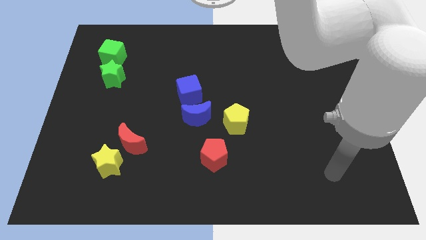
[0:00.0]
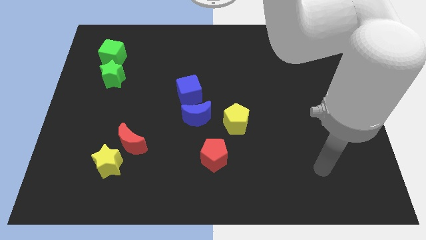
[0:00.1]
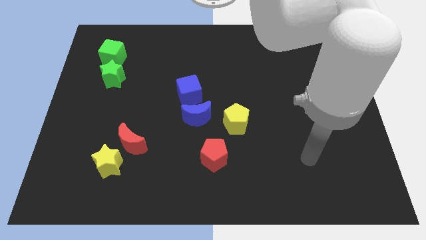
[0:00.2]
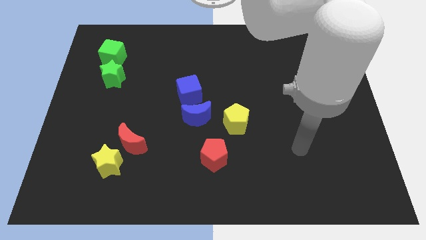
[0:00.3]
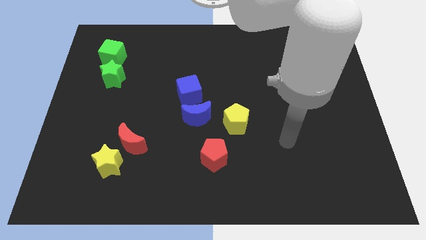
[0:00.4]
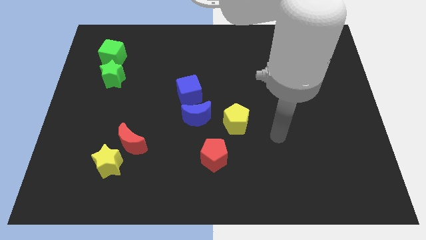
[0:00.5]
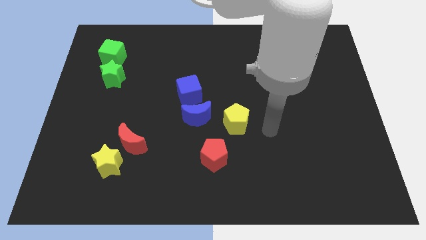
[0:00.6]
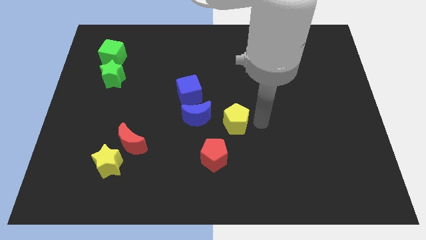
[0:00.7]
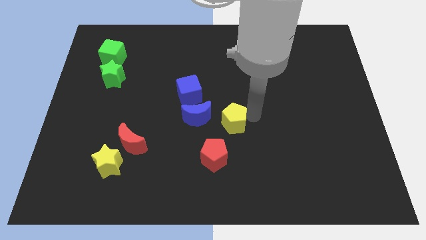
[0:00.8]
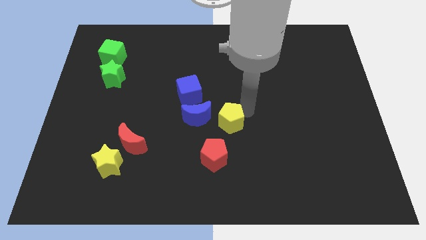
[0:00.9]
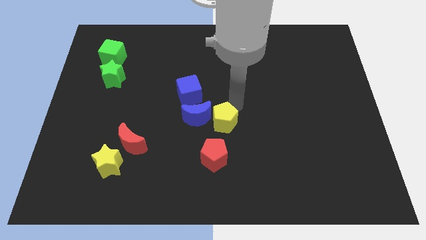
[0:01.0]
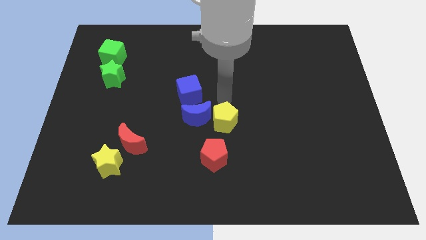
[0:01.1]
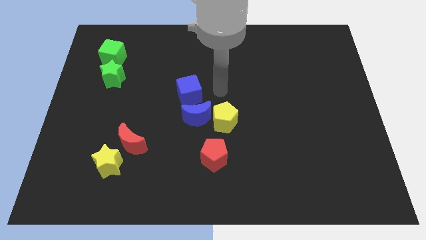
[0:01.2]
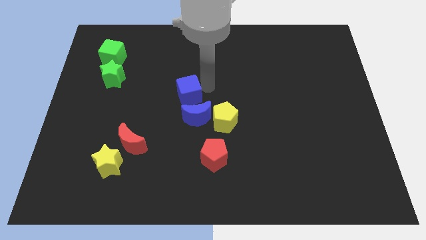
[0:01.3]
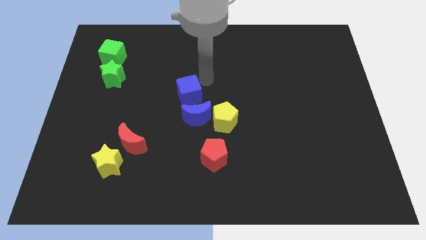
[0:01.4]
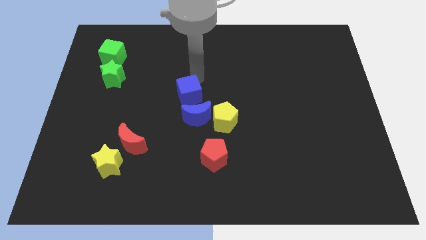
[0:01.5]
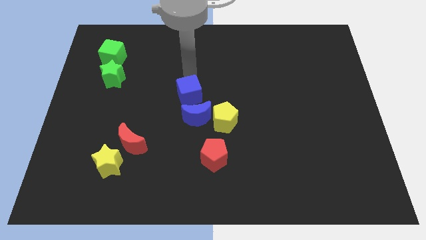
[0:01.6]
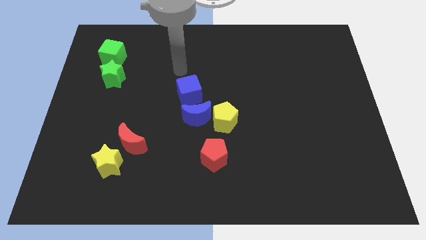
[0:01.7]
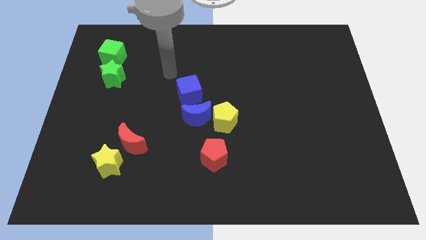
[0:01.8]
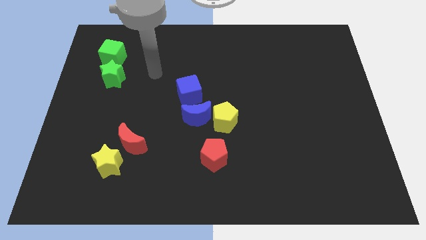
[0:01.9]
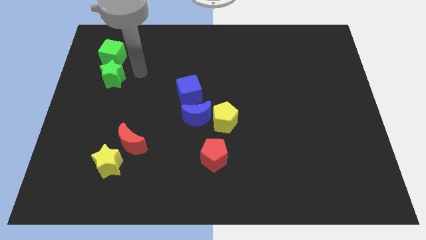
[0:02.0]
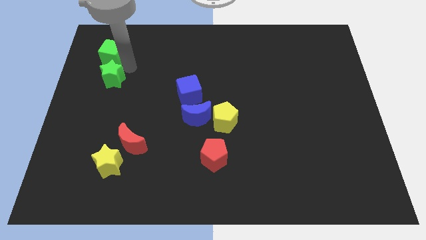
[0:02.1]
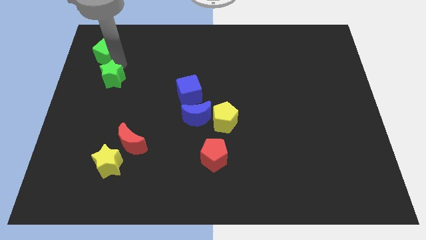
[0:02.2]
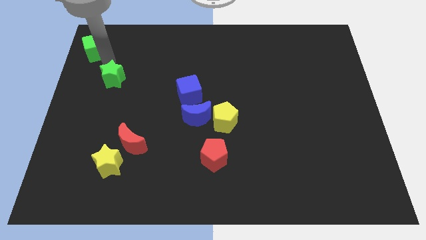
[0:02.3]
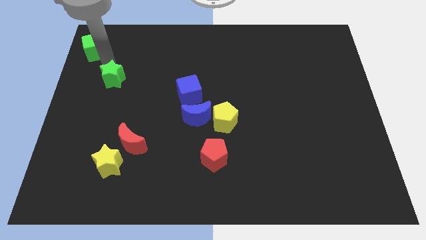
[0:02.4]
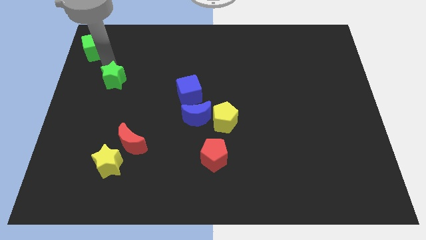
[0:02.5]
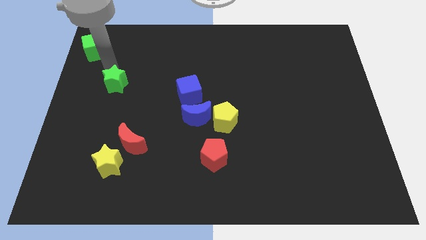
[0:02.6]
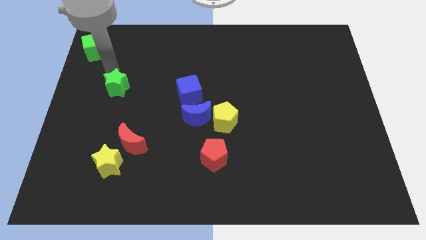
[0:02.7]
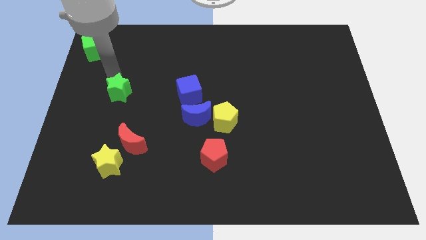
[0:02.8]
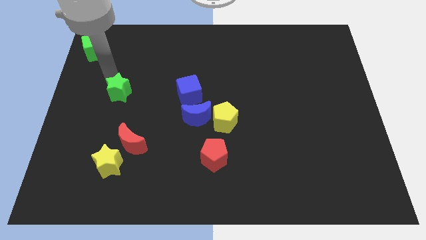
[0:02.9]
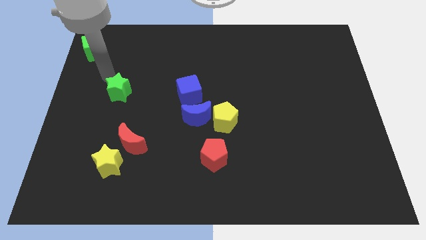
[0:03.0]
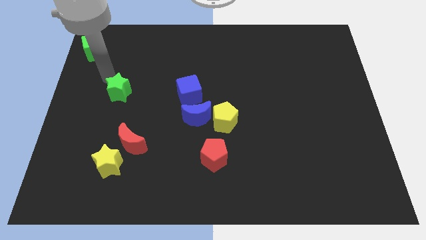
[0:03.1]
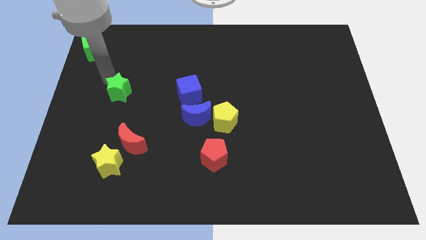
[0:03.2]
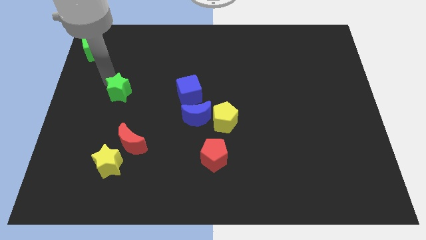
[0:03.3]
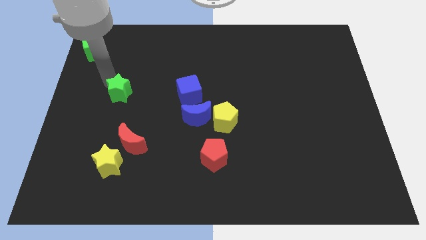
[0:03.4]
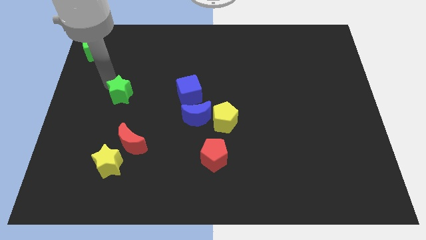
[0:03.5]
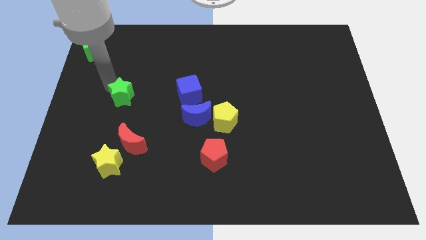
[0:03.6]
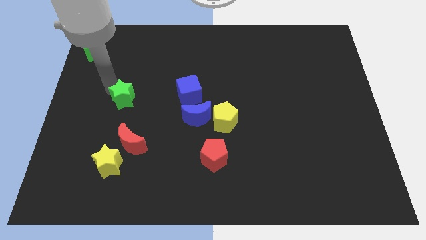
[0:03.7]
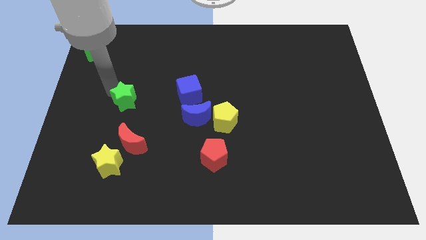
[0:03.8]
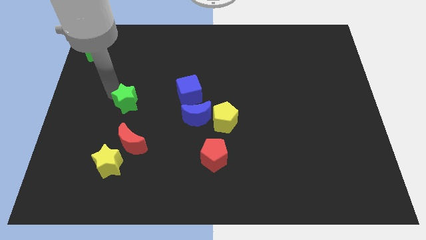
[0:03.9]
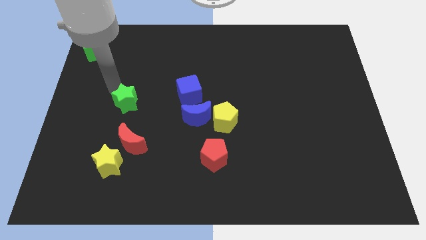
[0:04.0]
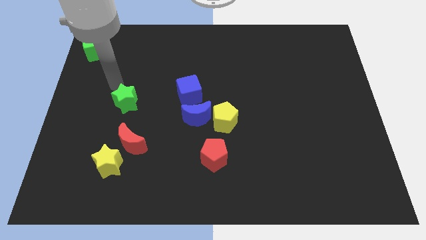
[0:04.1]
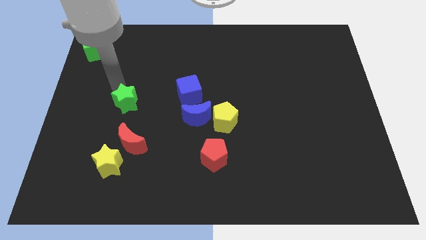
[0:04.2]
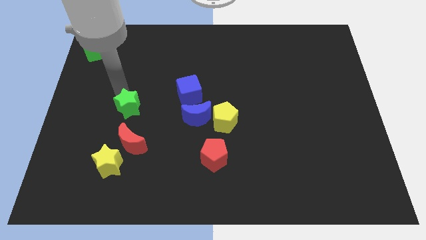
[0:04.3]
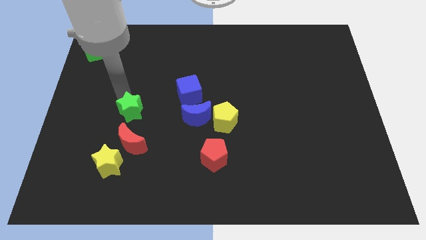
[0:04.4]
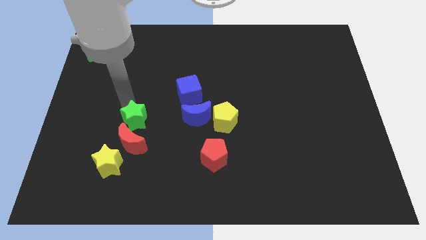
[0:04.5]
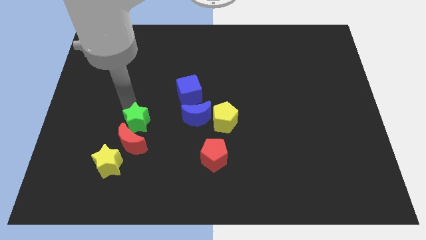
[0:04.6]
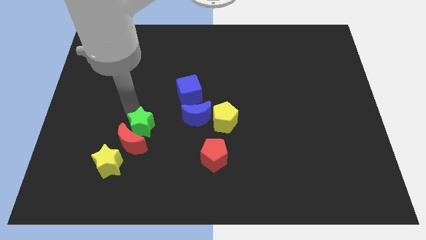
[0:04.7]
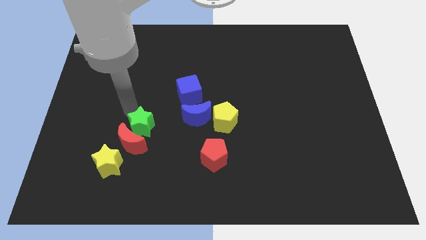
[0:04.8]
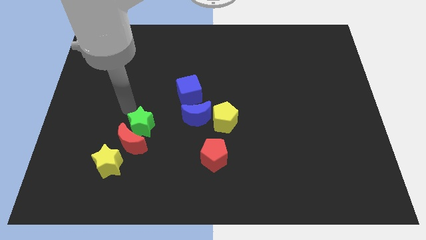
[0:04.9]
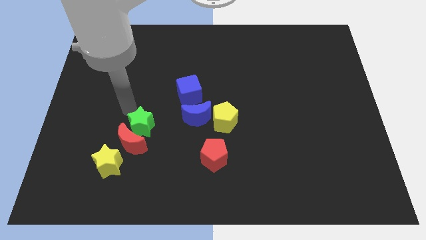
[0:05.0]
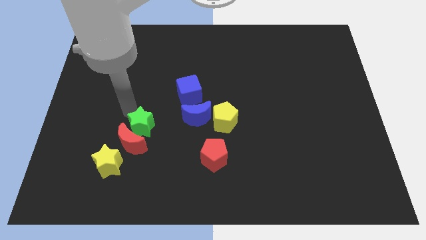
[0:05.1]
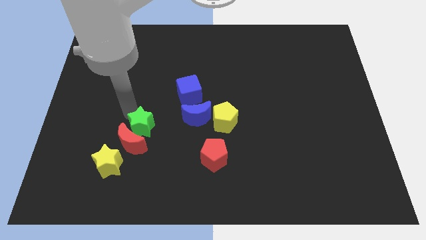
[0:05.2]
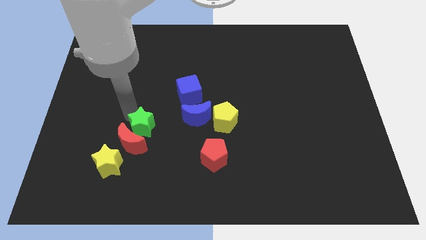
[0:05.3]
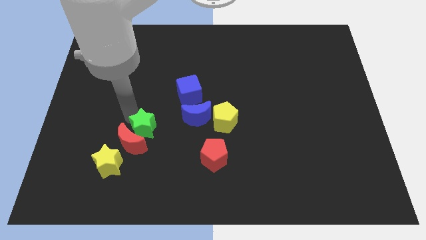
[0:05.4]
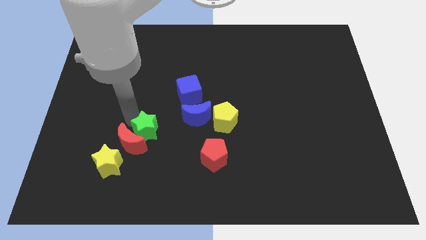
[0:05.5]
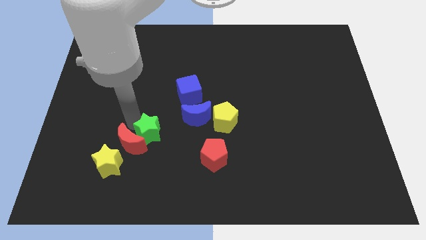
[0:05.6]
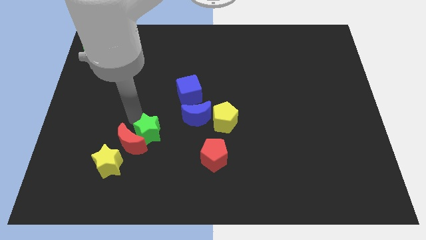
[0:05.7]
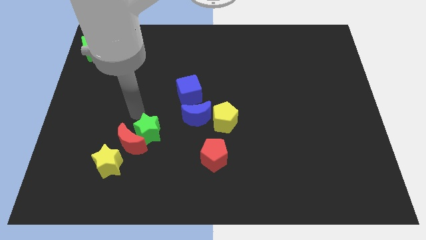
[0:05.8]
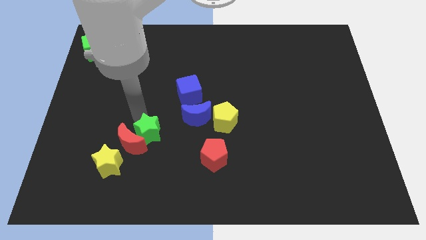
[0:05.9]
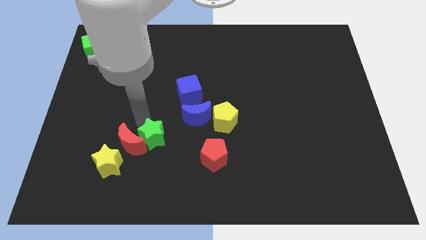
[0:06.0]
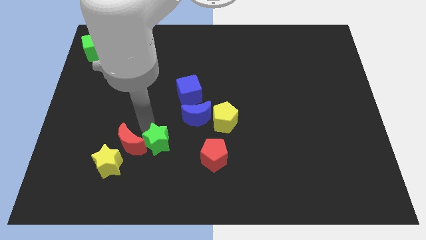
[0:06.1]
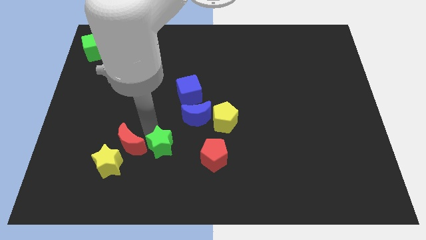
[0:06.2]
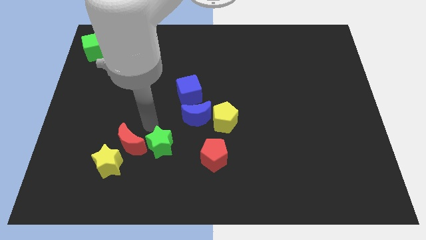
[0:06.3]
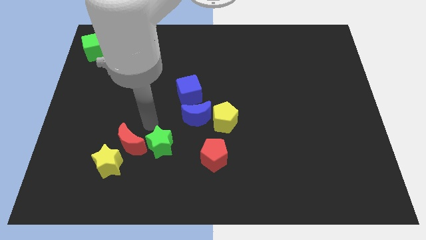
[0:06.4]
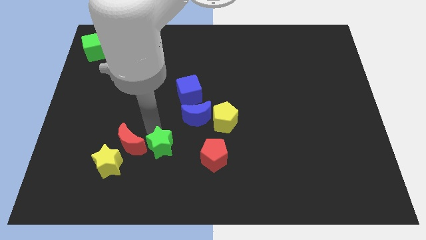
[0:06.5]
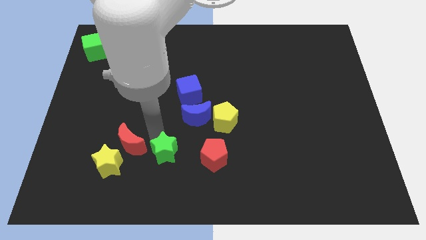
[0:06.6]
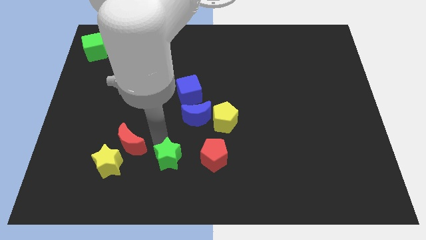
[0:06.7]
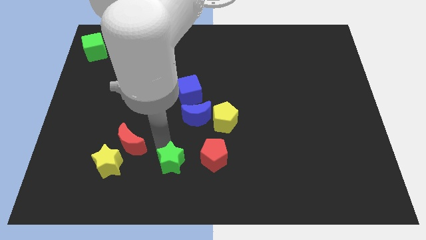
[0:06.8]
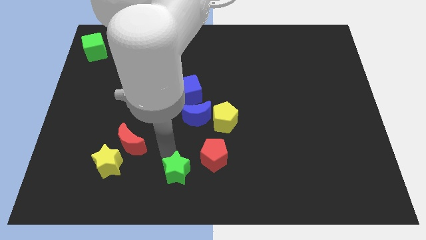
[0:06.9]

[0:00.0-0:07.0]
put the green star to the bottom side

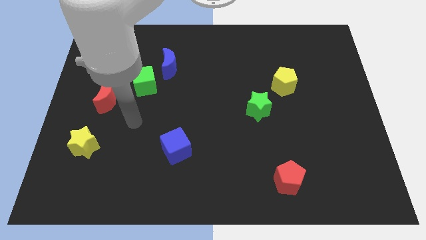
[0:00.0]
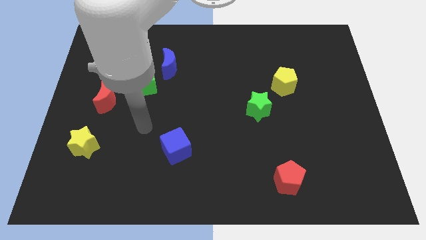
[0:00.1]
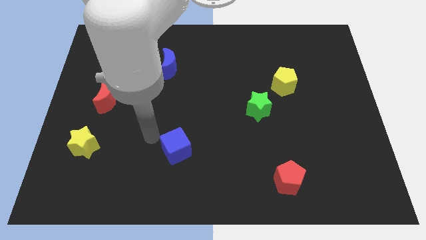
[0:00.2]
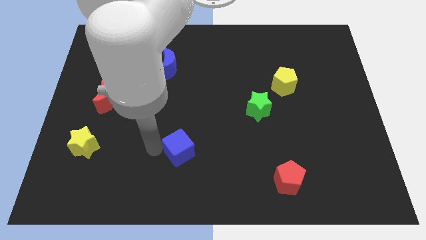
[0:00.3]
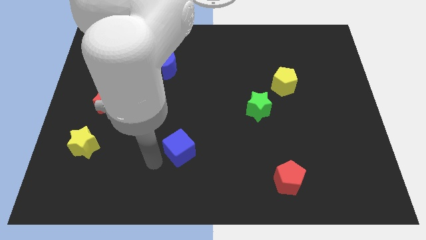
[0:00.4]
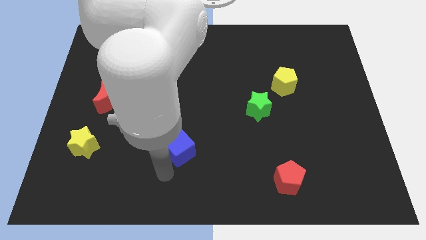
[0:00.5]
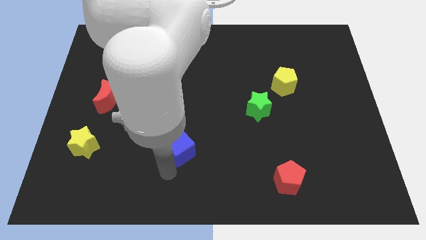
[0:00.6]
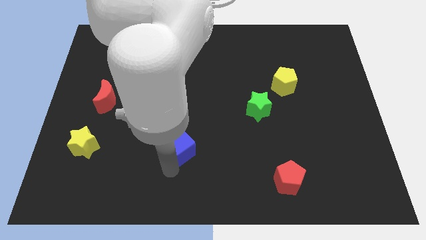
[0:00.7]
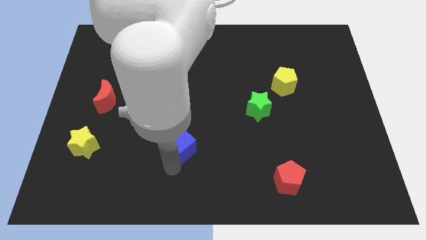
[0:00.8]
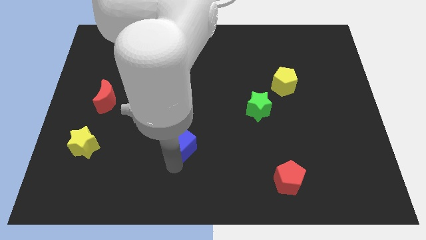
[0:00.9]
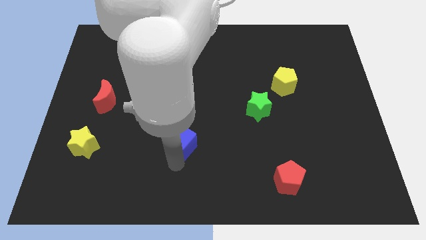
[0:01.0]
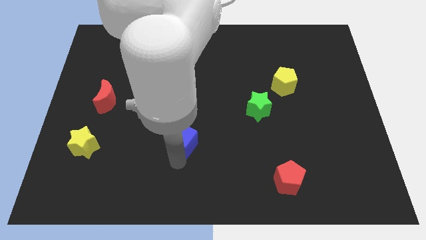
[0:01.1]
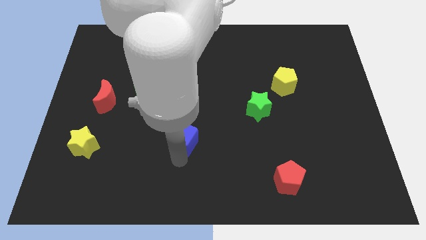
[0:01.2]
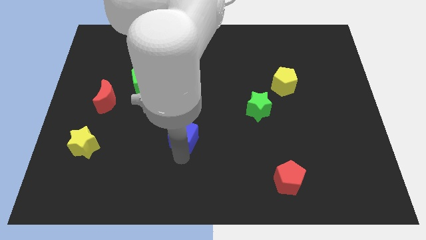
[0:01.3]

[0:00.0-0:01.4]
move the blue cube to the center
